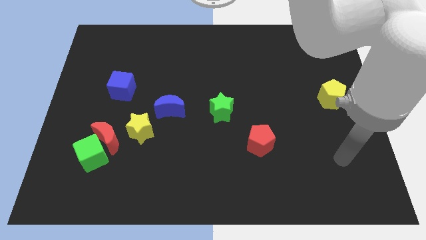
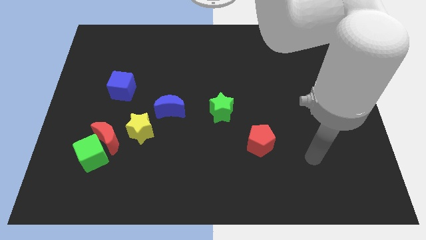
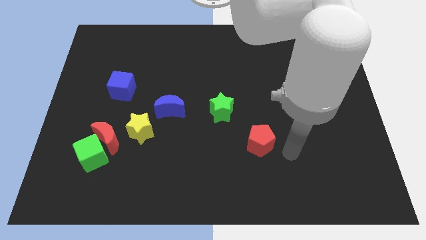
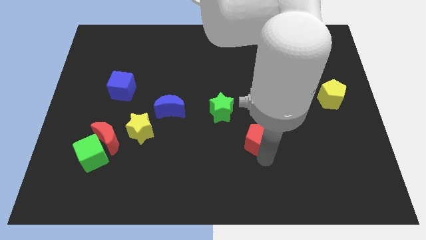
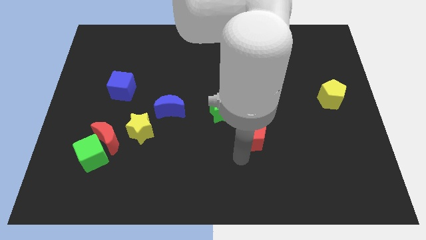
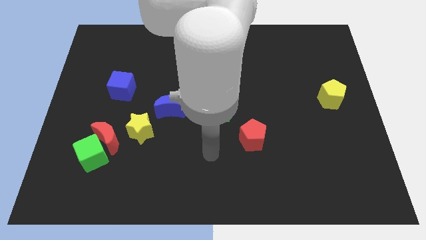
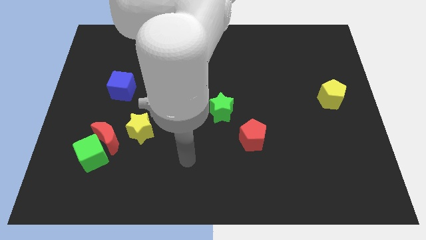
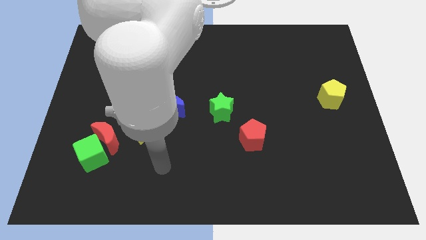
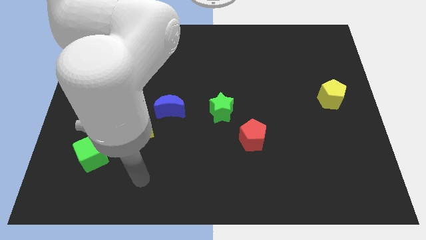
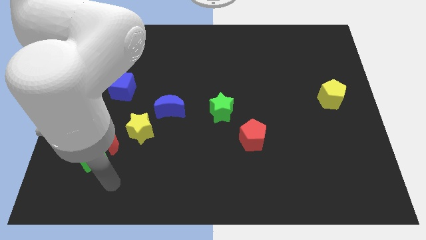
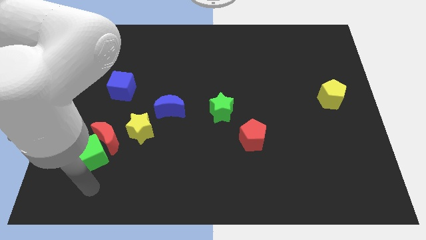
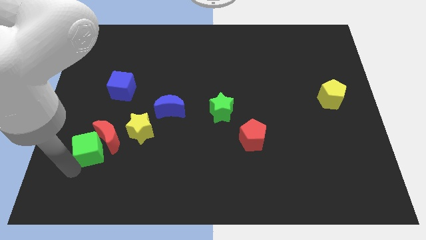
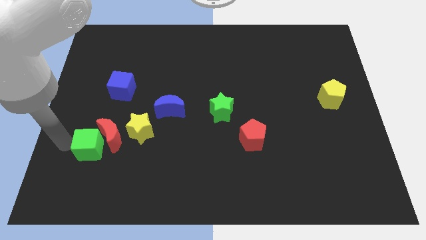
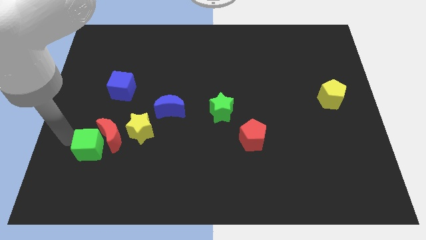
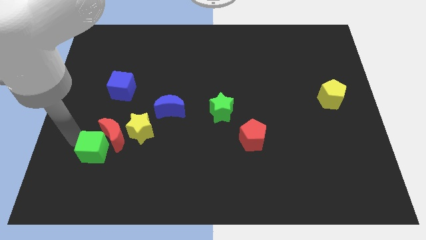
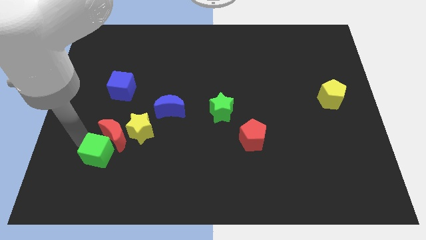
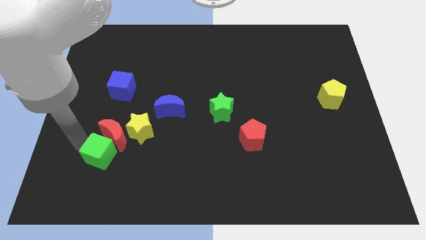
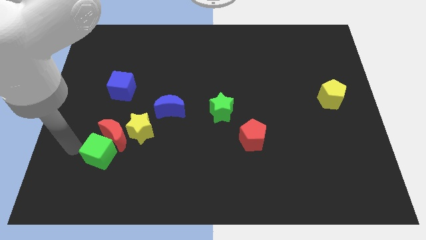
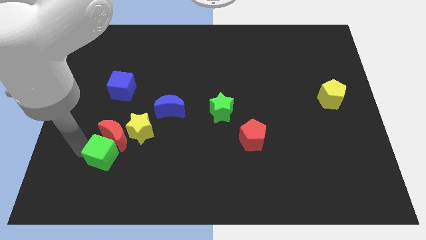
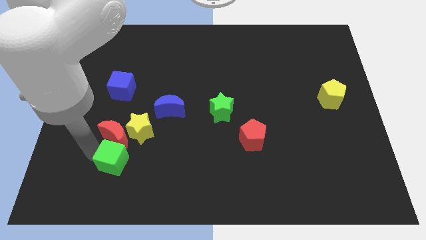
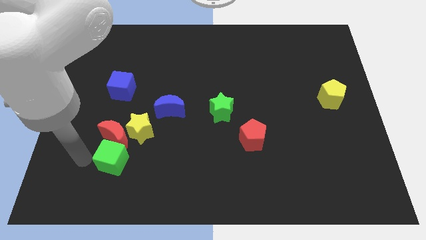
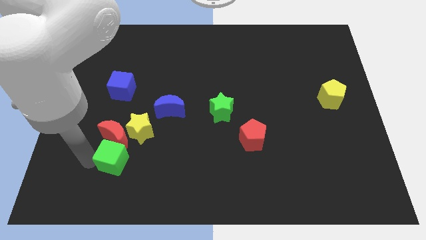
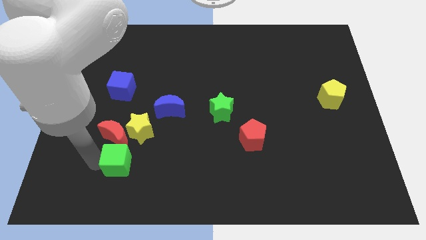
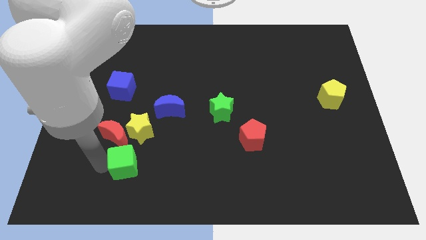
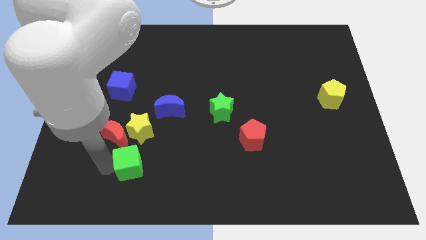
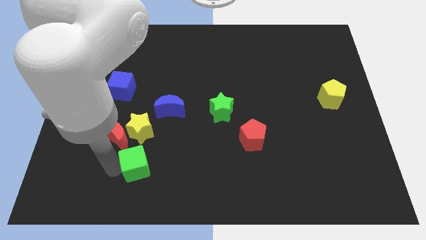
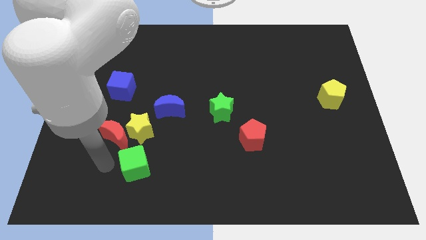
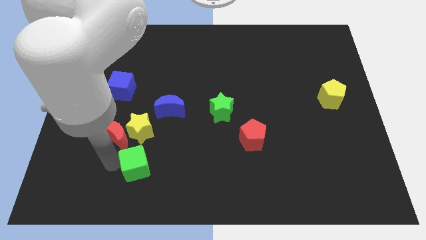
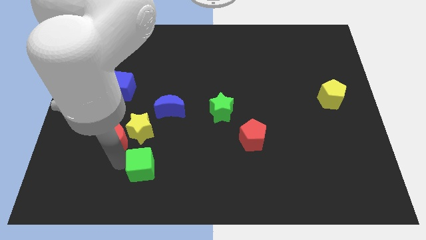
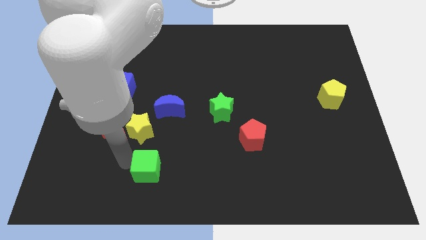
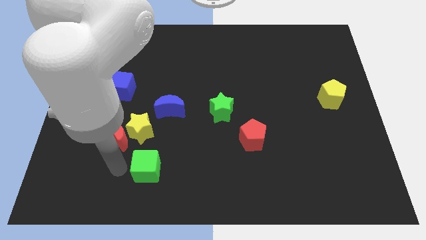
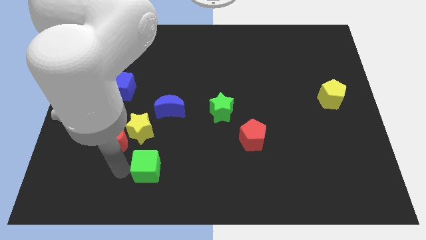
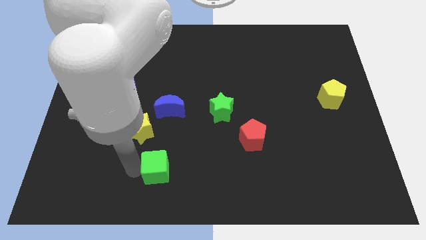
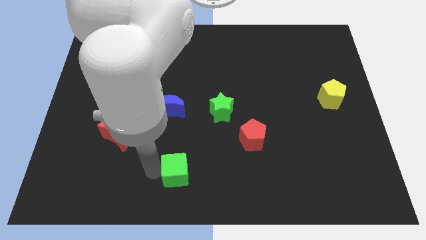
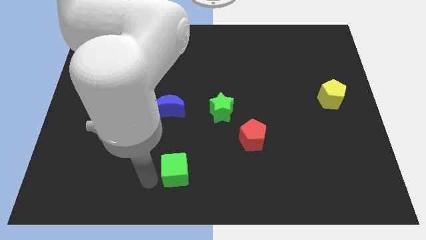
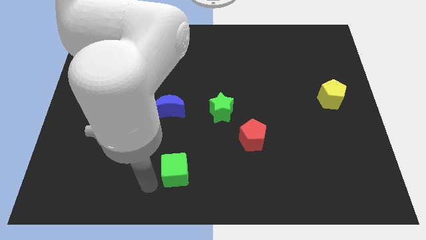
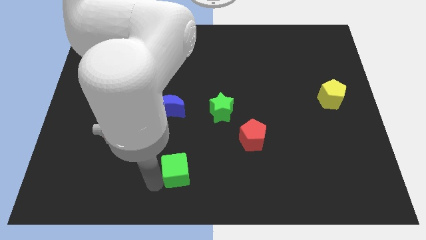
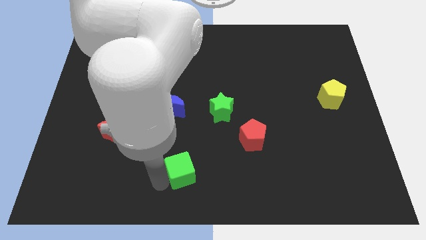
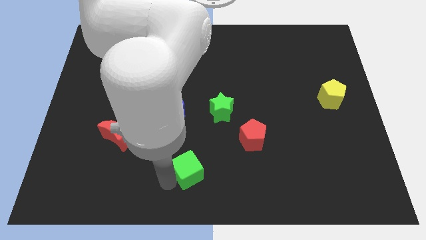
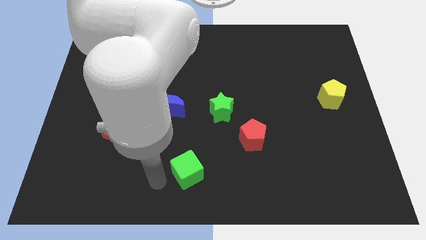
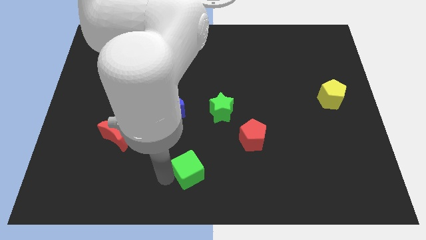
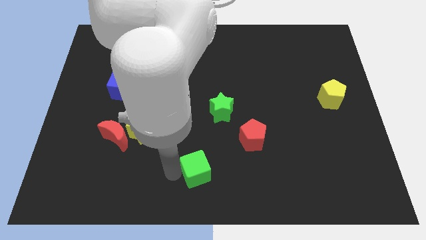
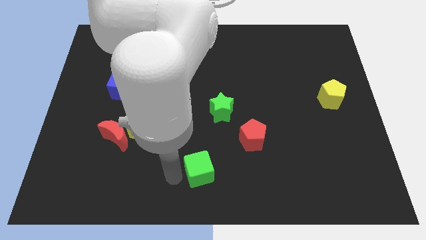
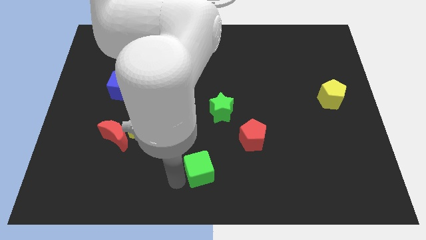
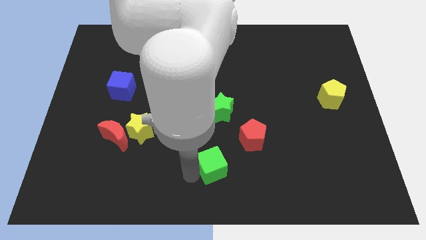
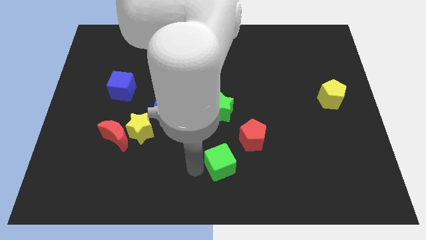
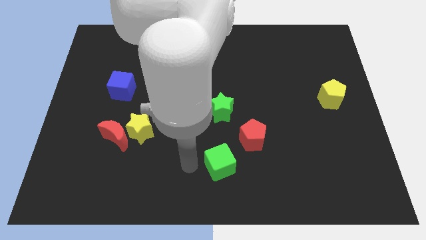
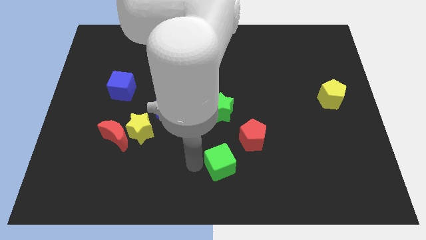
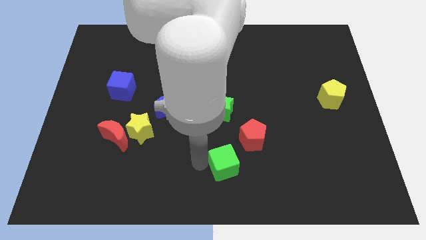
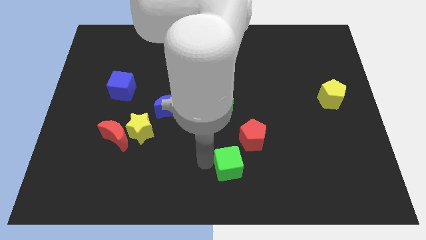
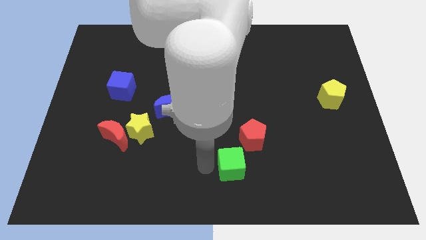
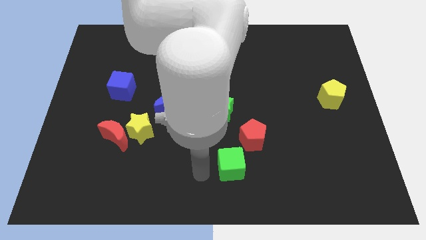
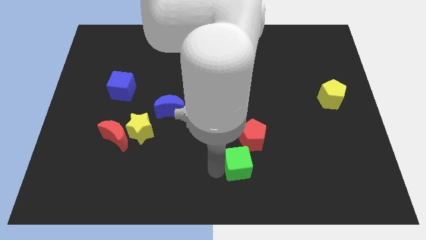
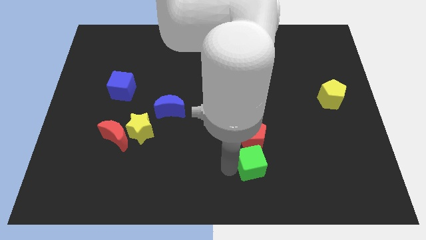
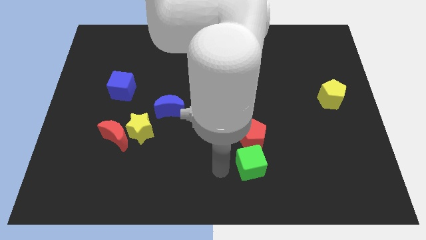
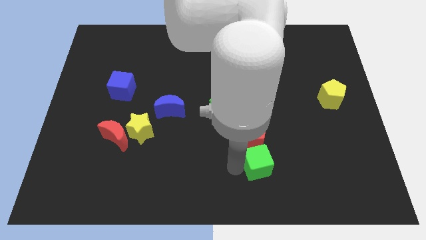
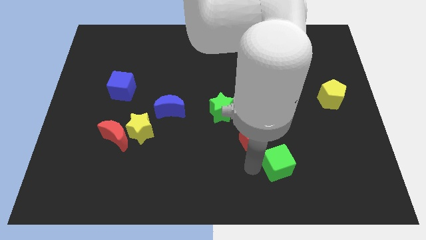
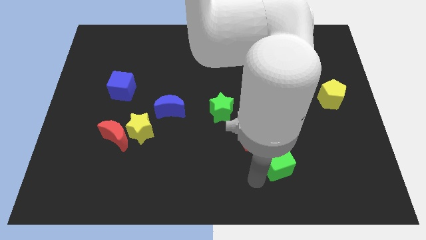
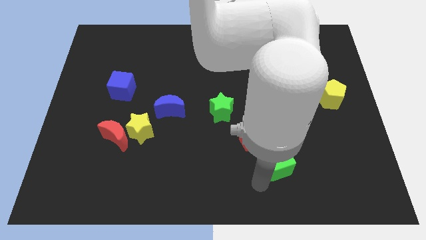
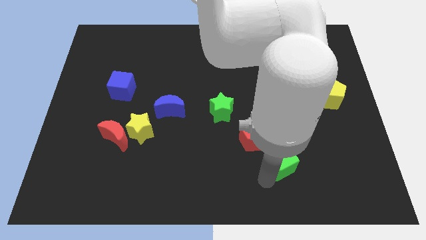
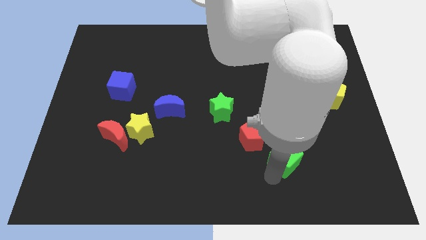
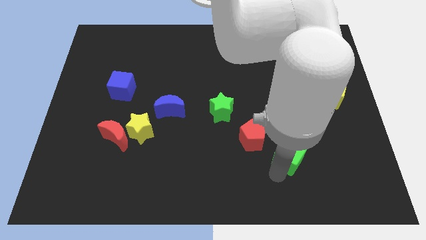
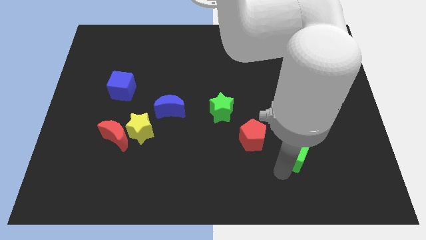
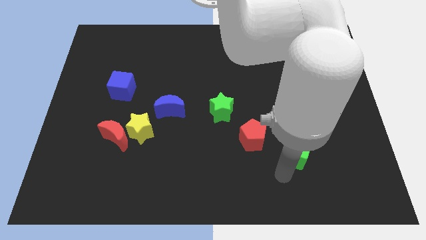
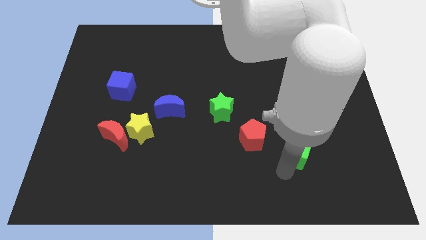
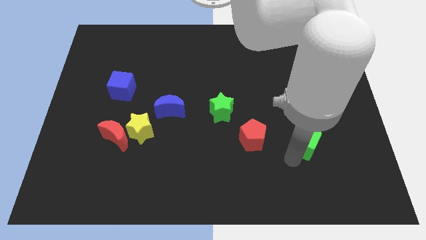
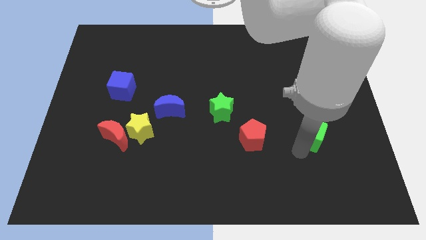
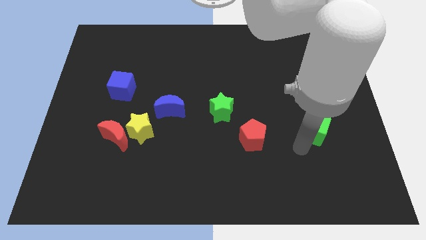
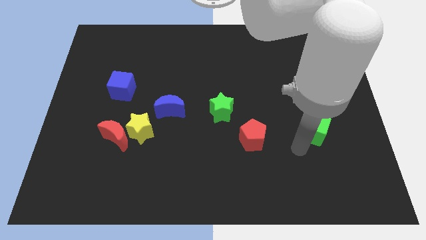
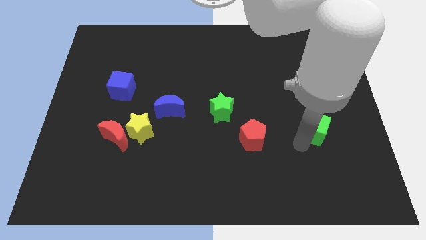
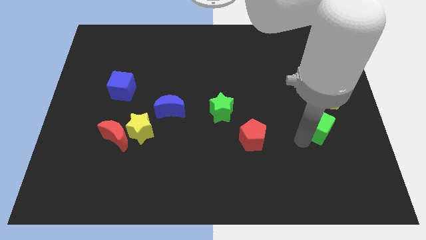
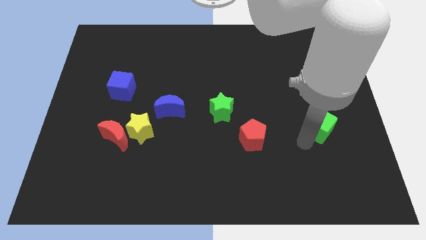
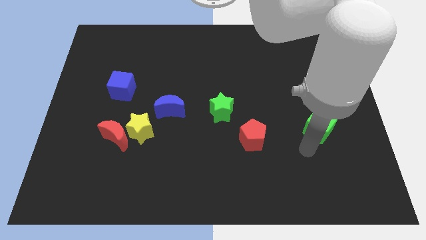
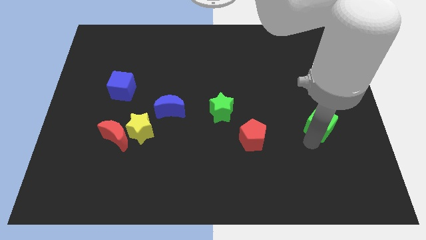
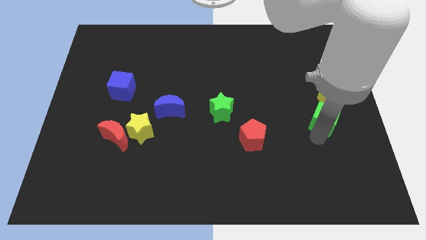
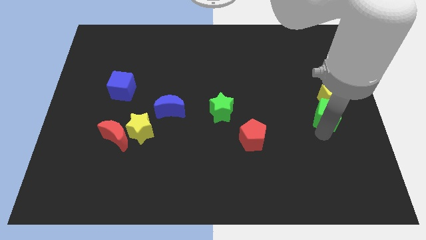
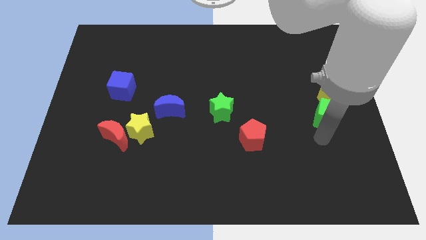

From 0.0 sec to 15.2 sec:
slide the green cube to the yellow pentagon
